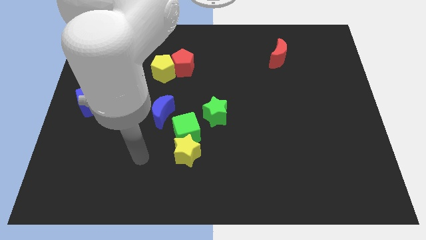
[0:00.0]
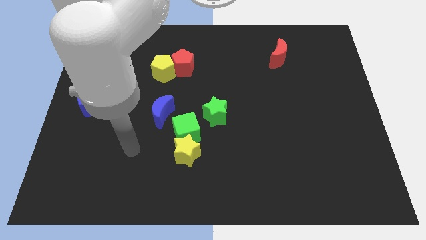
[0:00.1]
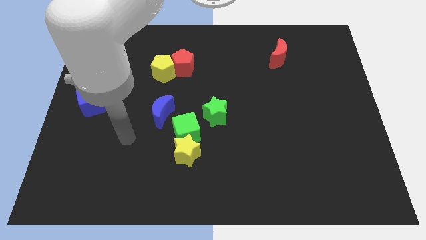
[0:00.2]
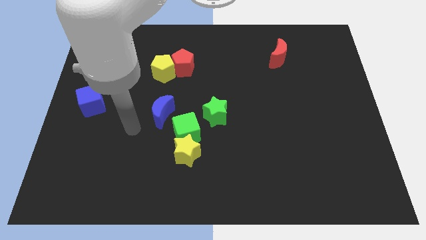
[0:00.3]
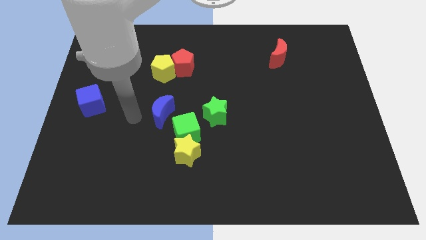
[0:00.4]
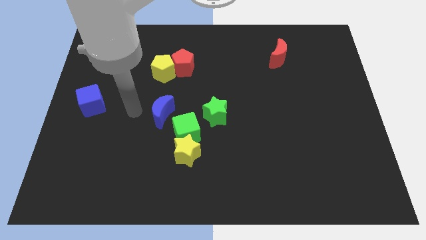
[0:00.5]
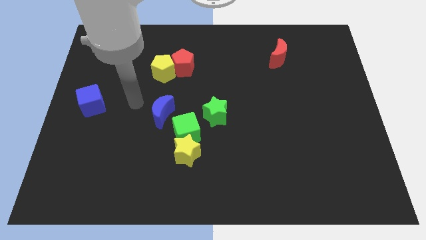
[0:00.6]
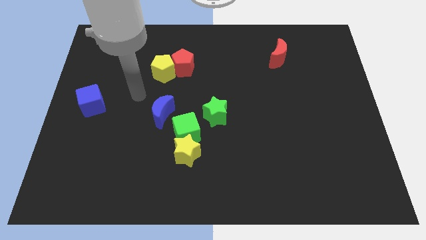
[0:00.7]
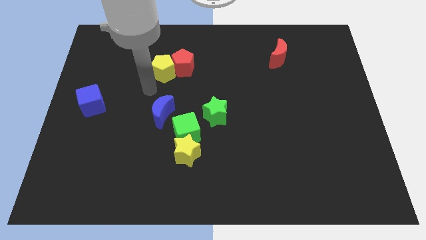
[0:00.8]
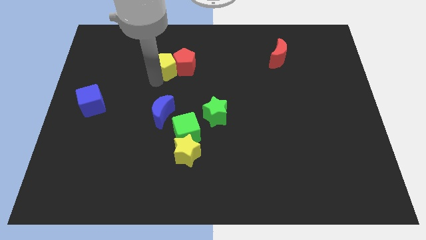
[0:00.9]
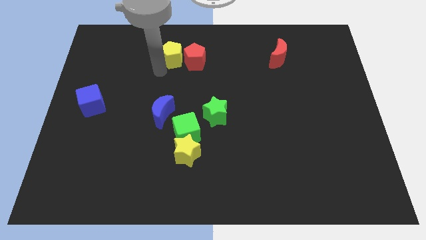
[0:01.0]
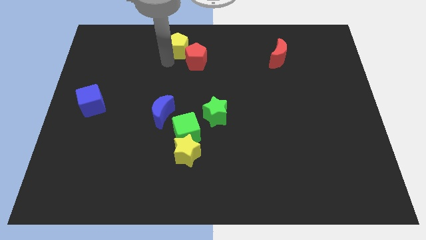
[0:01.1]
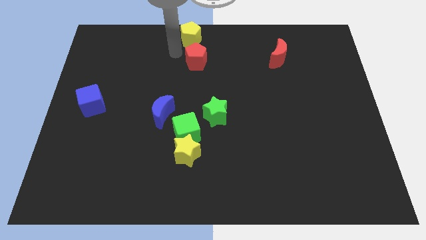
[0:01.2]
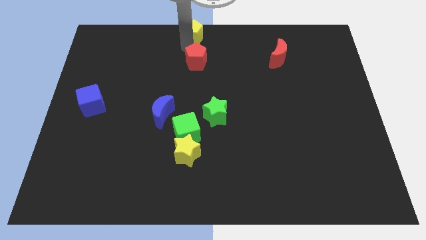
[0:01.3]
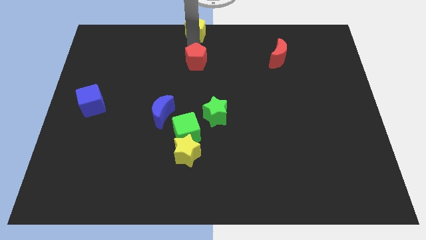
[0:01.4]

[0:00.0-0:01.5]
move the red pentagon away from the yellow pentagon

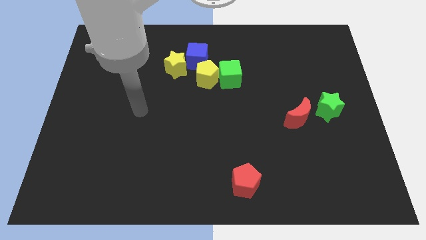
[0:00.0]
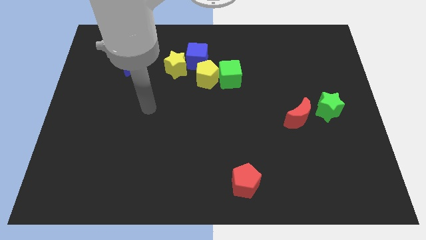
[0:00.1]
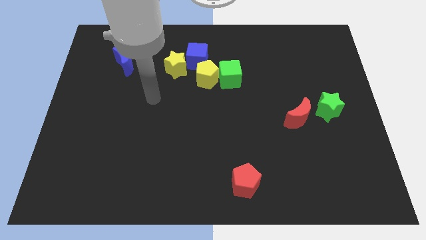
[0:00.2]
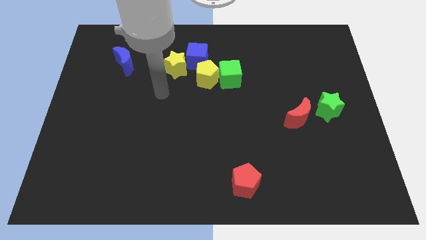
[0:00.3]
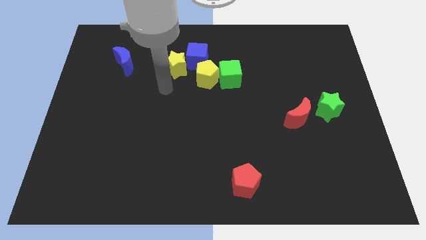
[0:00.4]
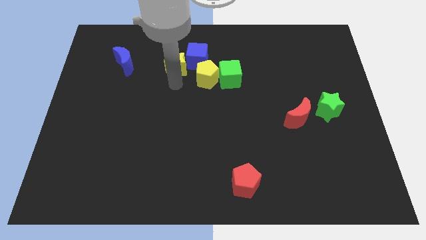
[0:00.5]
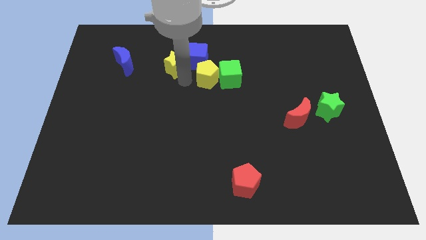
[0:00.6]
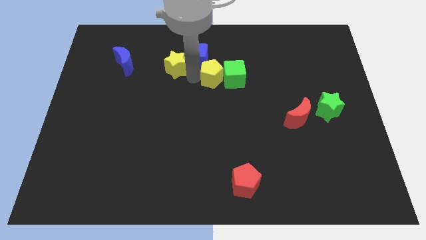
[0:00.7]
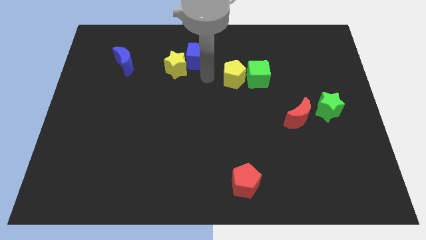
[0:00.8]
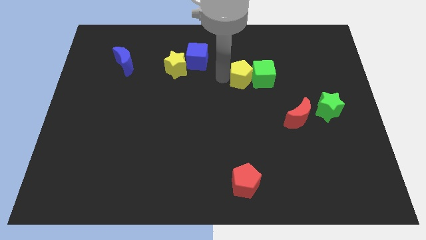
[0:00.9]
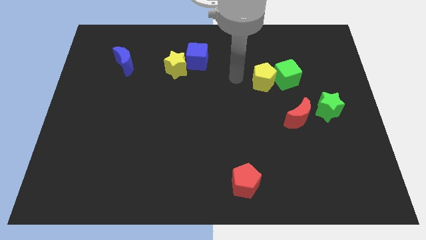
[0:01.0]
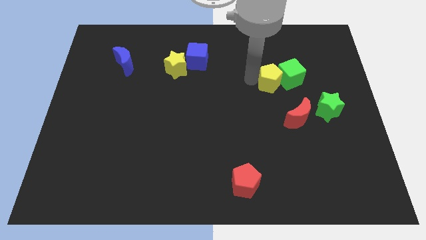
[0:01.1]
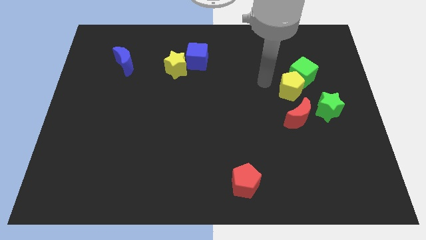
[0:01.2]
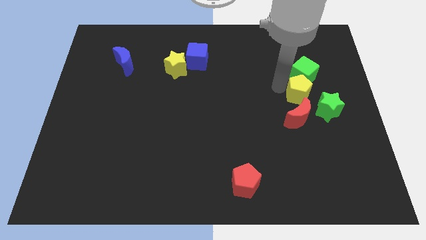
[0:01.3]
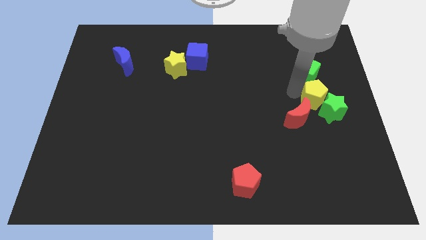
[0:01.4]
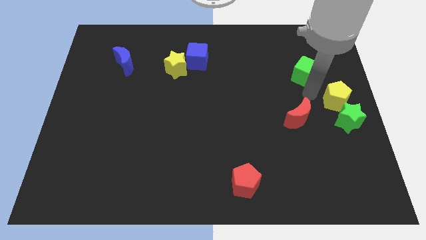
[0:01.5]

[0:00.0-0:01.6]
move the green cube away from the yellow pentagon

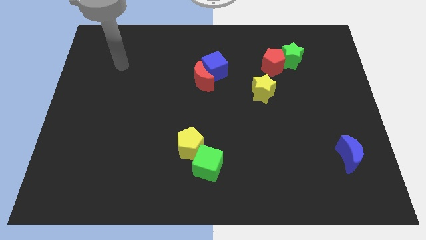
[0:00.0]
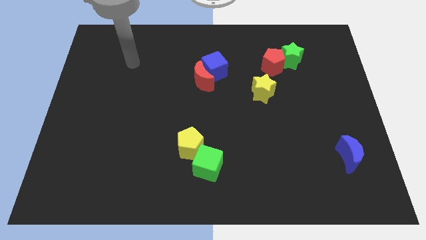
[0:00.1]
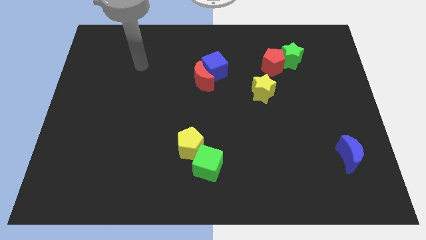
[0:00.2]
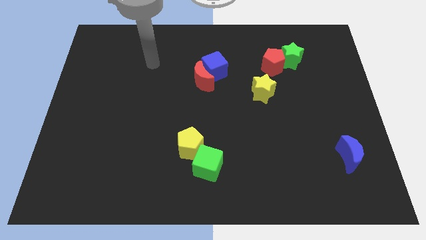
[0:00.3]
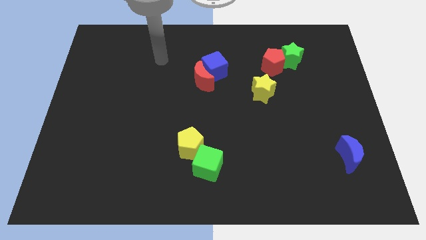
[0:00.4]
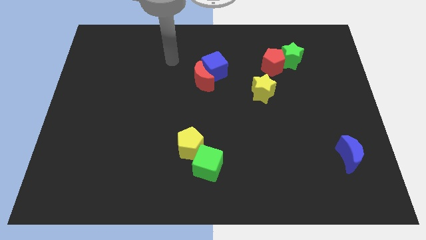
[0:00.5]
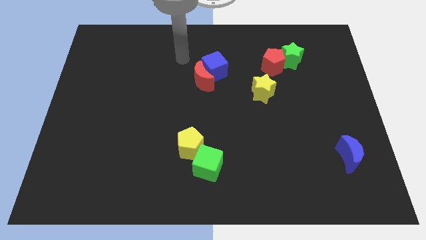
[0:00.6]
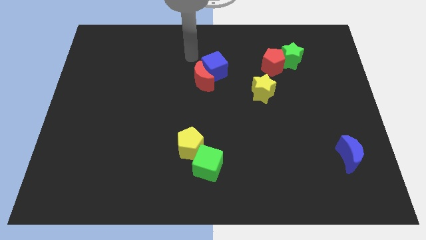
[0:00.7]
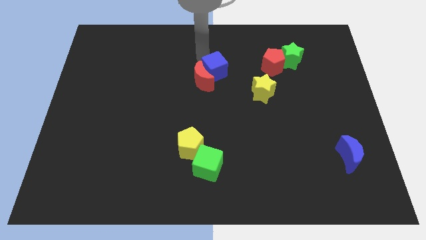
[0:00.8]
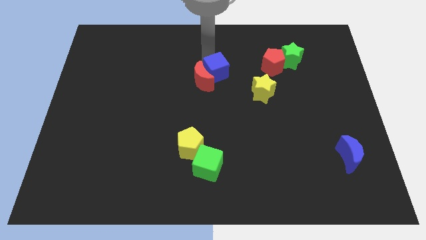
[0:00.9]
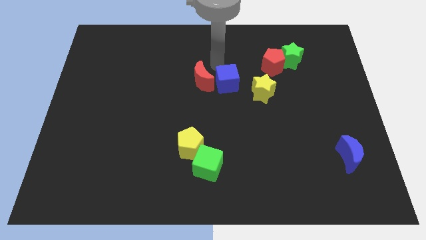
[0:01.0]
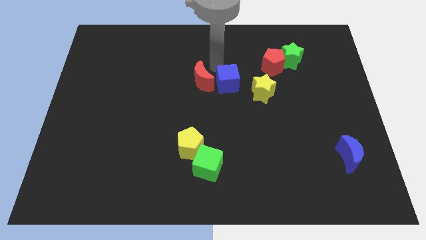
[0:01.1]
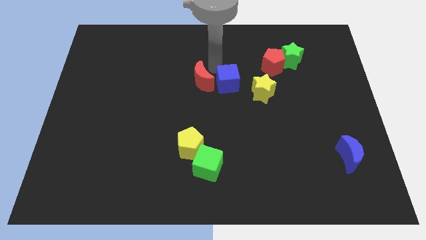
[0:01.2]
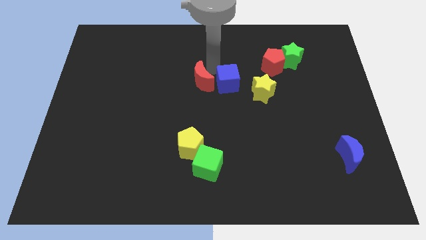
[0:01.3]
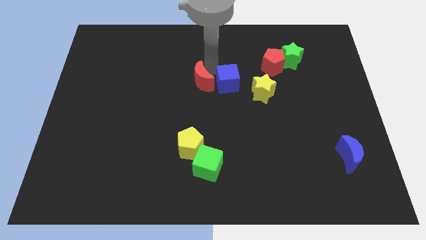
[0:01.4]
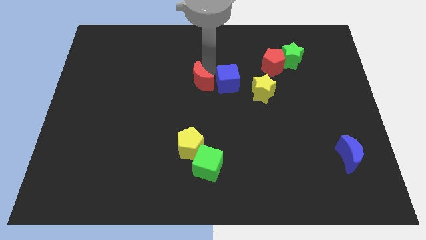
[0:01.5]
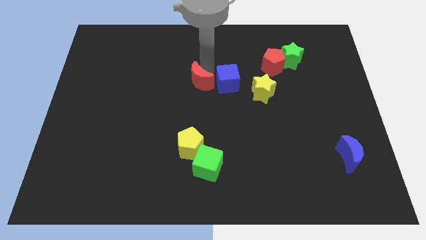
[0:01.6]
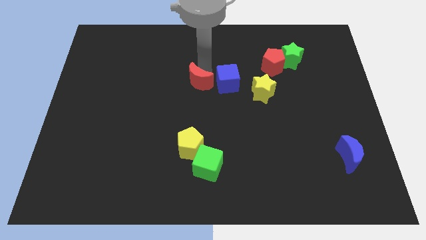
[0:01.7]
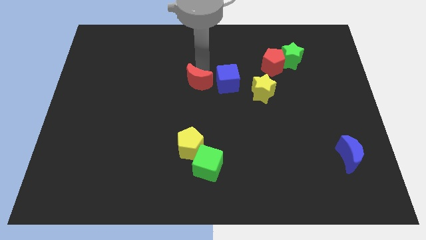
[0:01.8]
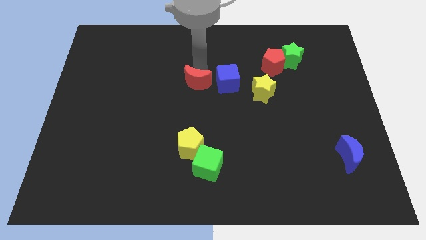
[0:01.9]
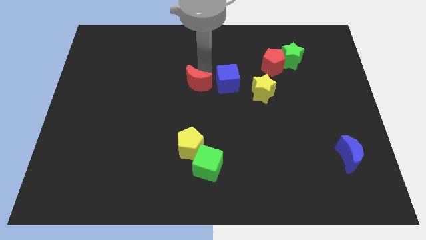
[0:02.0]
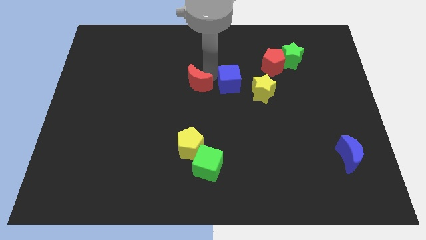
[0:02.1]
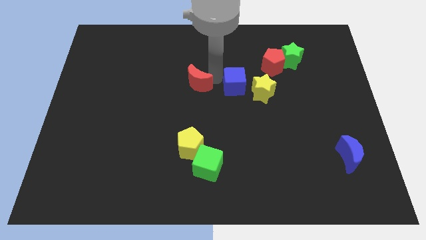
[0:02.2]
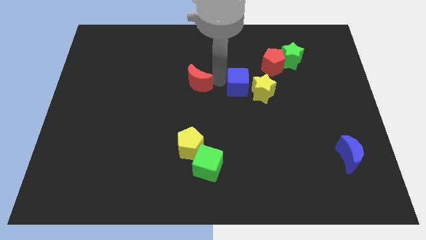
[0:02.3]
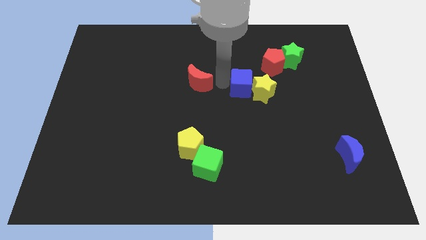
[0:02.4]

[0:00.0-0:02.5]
separate the red moon from the blue cube

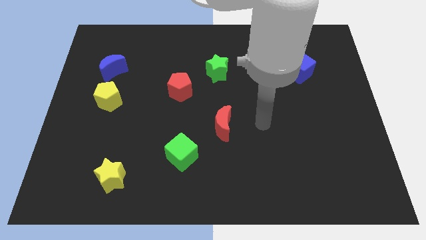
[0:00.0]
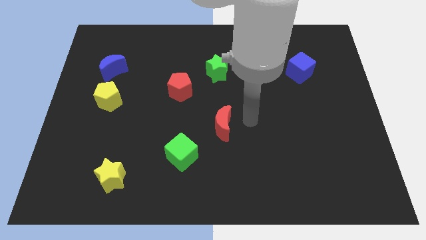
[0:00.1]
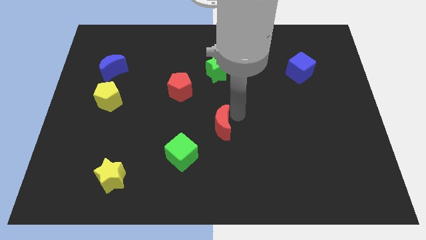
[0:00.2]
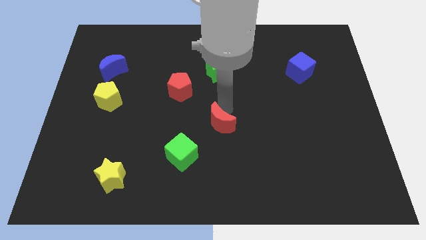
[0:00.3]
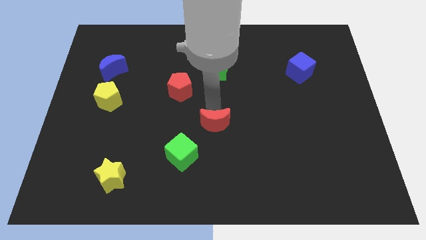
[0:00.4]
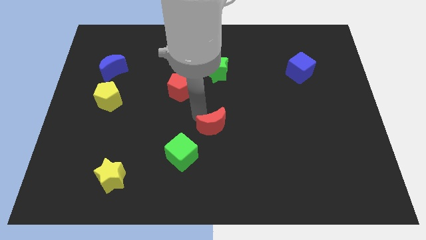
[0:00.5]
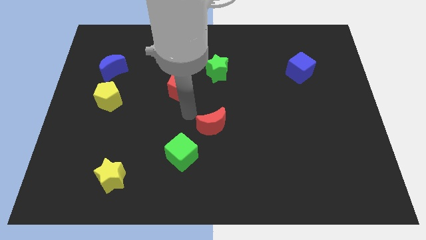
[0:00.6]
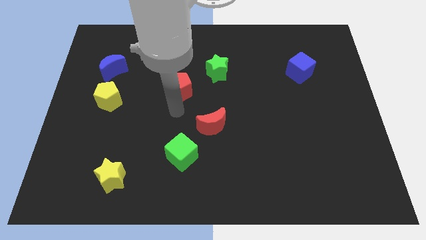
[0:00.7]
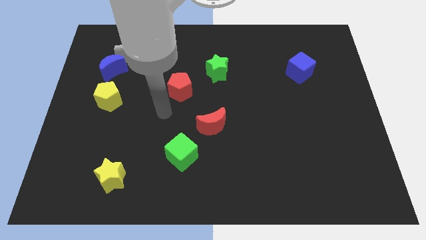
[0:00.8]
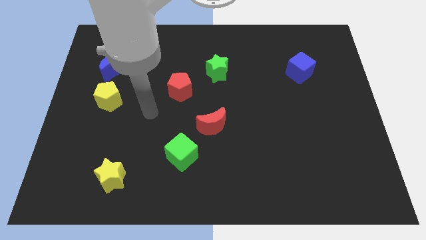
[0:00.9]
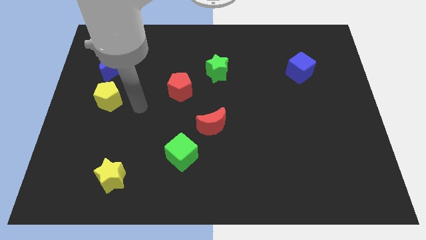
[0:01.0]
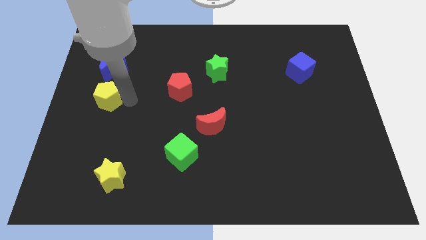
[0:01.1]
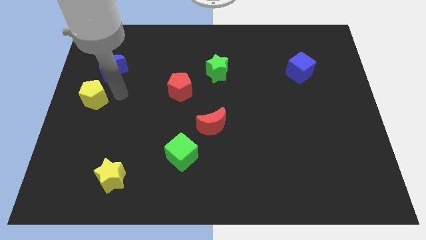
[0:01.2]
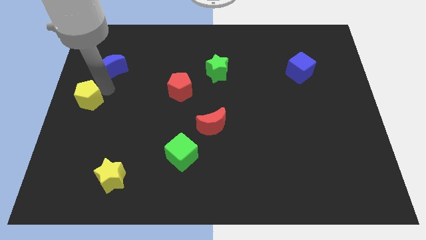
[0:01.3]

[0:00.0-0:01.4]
move the blue moon away from the yellow pentagon

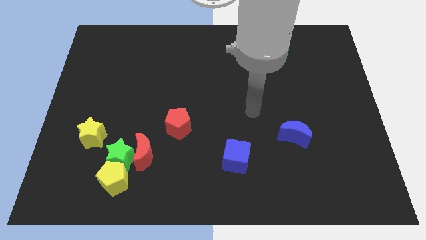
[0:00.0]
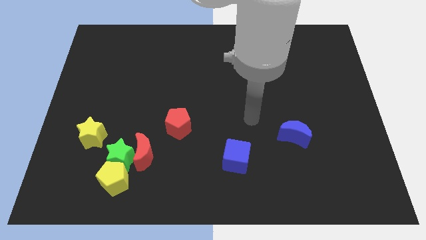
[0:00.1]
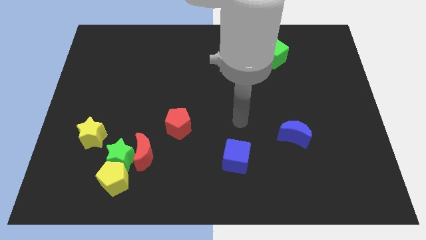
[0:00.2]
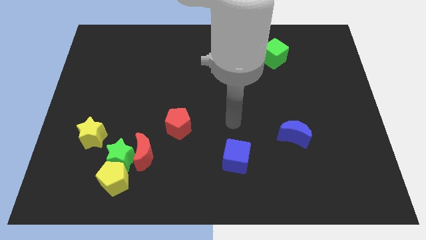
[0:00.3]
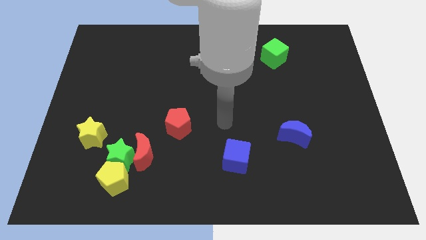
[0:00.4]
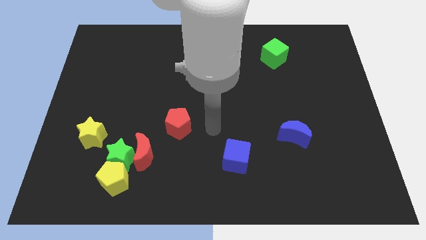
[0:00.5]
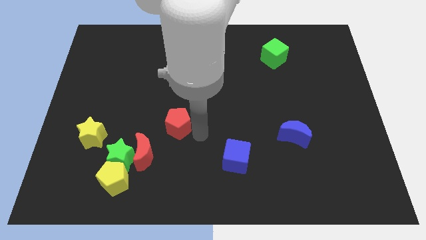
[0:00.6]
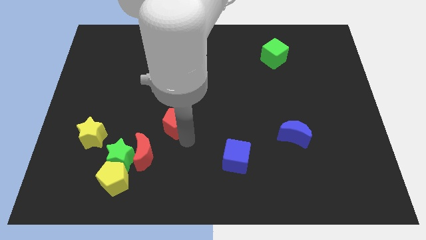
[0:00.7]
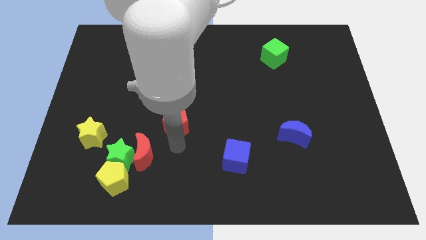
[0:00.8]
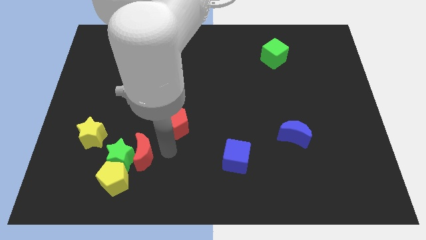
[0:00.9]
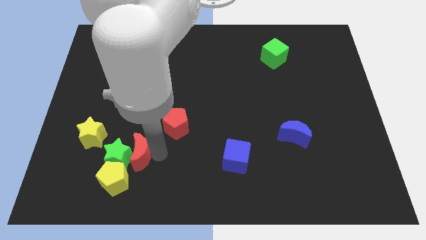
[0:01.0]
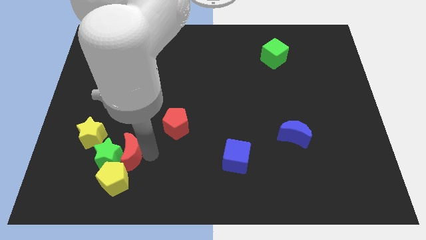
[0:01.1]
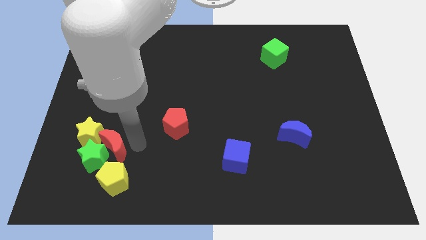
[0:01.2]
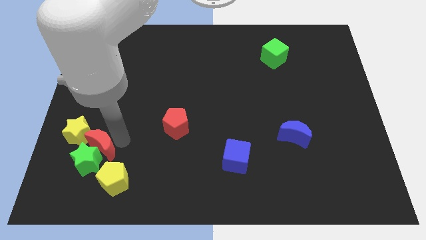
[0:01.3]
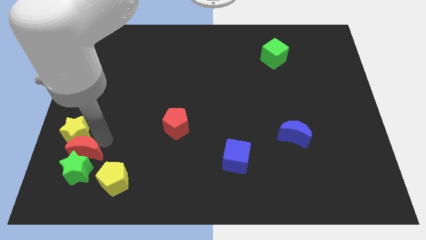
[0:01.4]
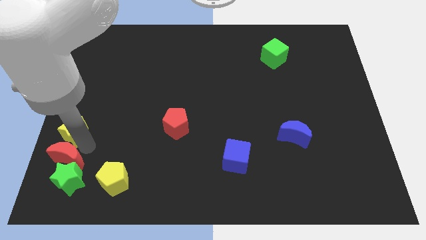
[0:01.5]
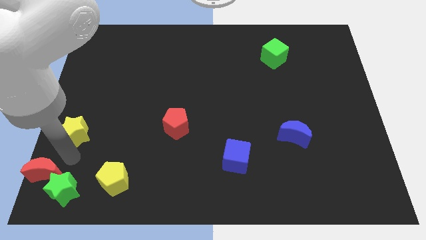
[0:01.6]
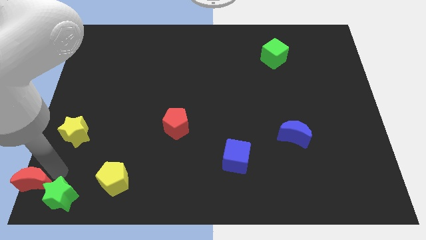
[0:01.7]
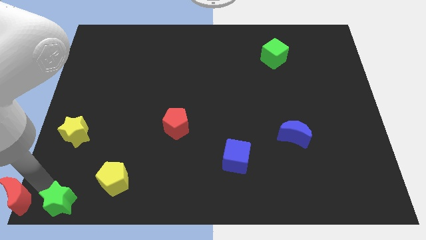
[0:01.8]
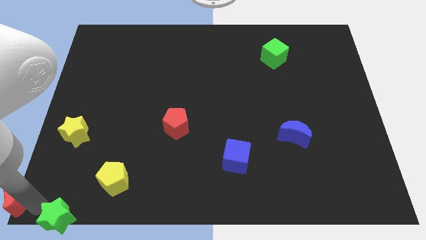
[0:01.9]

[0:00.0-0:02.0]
move the green star away from the group of blocks

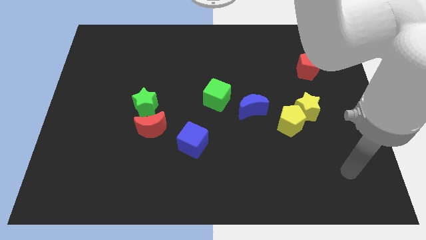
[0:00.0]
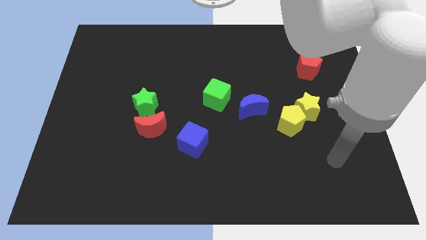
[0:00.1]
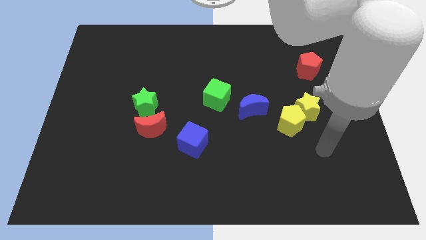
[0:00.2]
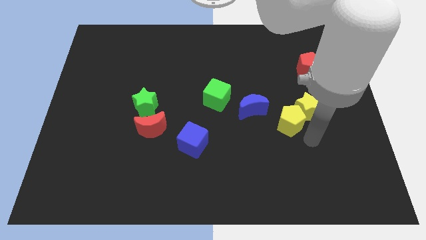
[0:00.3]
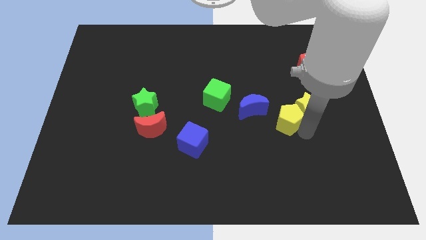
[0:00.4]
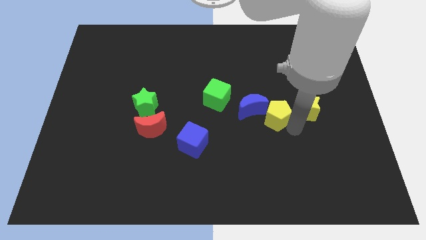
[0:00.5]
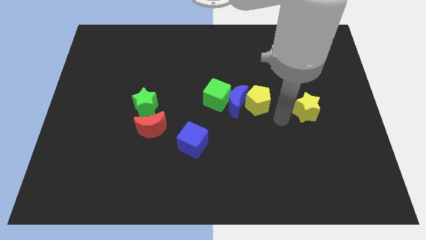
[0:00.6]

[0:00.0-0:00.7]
move the yellow star away from the yellow pentagon
